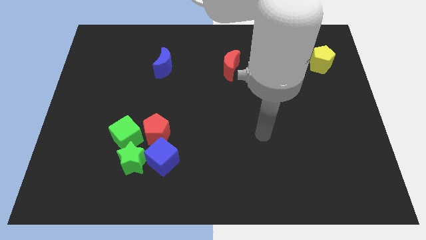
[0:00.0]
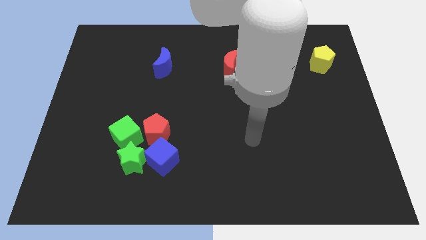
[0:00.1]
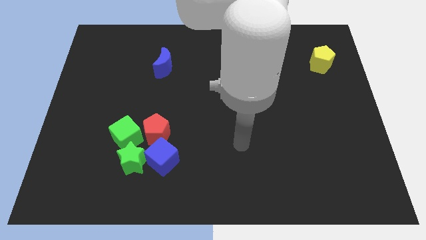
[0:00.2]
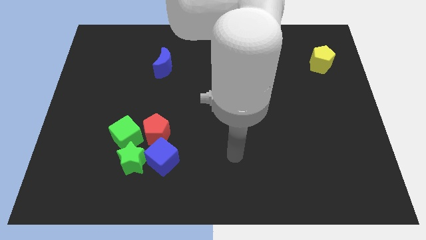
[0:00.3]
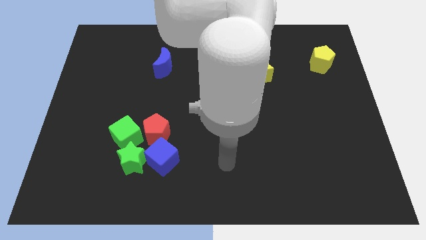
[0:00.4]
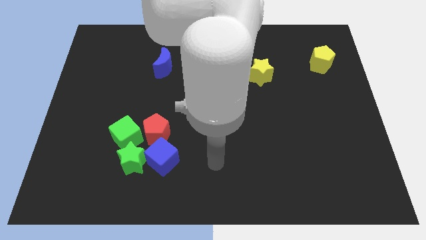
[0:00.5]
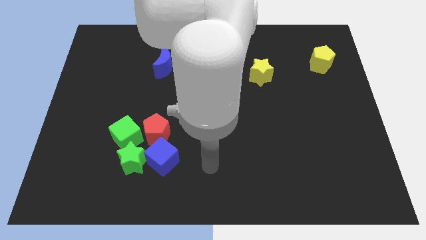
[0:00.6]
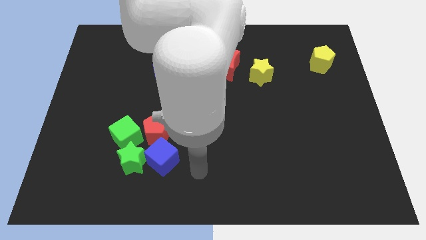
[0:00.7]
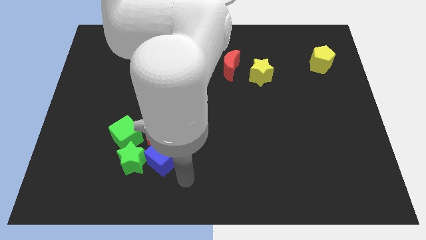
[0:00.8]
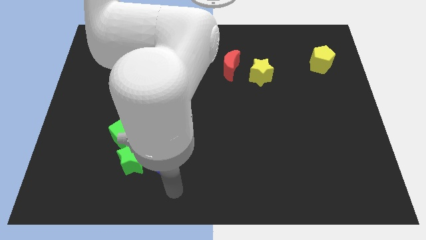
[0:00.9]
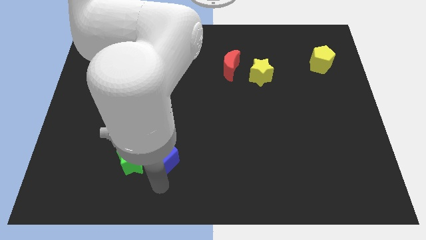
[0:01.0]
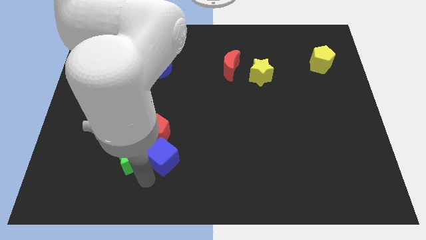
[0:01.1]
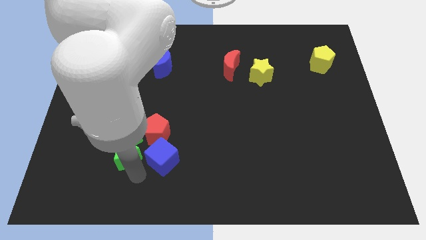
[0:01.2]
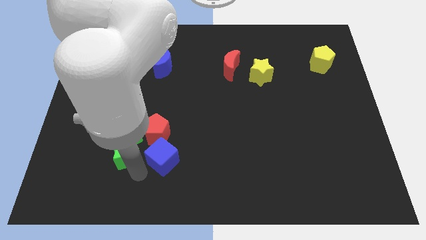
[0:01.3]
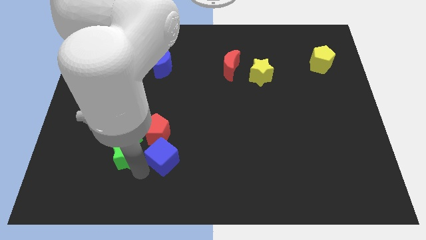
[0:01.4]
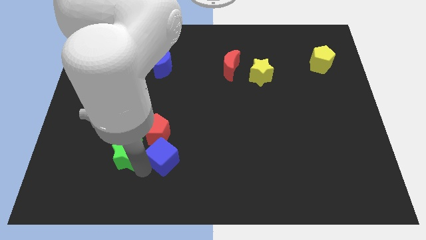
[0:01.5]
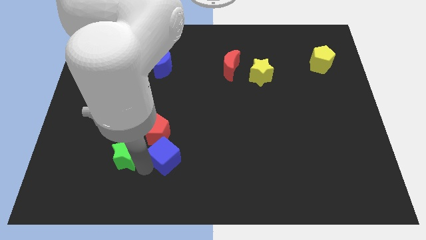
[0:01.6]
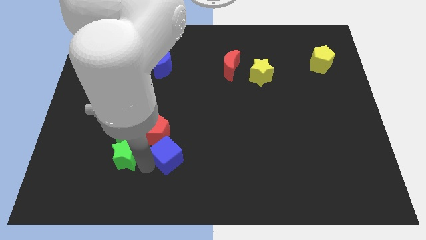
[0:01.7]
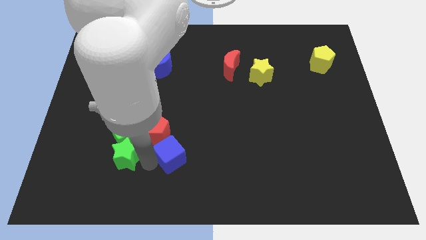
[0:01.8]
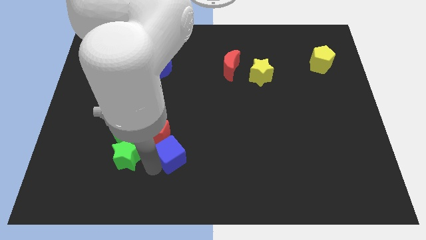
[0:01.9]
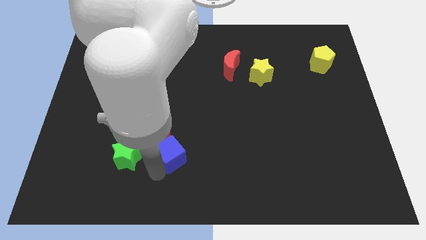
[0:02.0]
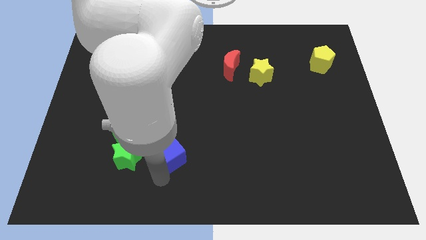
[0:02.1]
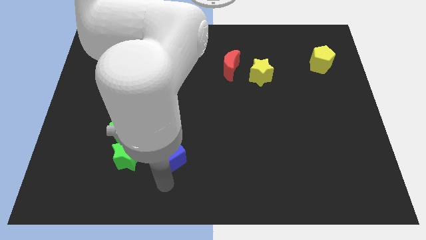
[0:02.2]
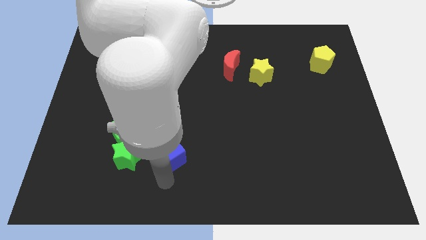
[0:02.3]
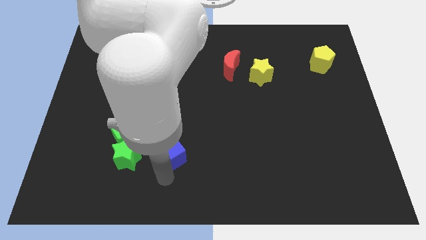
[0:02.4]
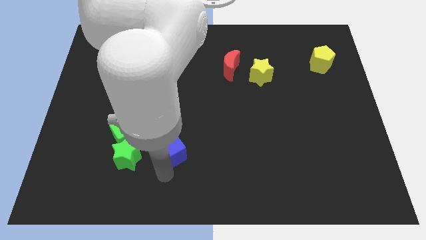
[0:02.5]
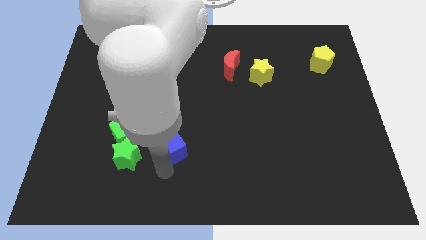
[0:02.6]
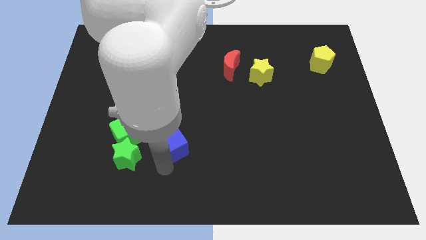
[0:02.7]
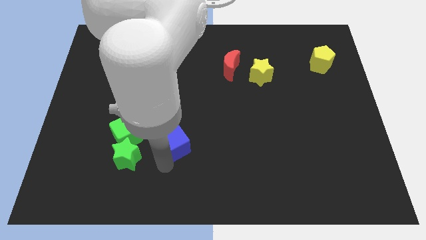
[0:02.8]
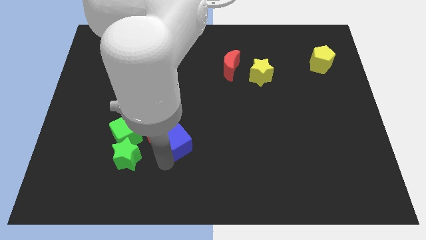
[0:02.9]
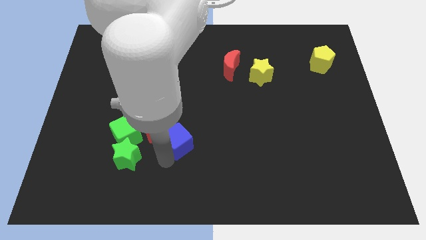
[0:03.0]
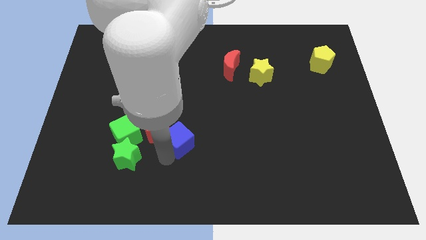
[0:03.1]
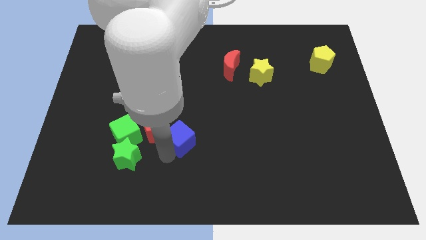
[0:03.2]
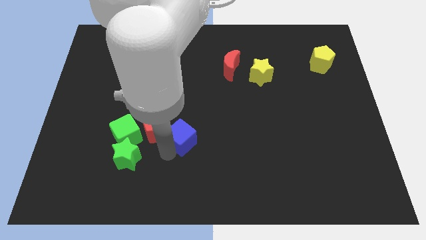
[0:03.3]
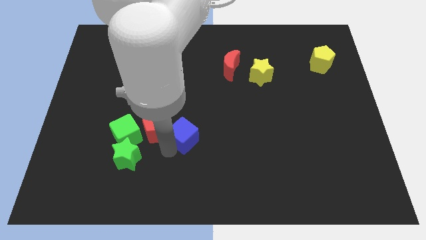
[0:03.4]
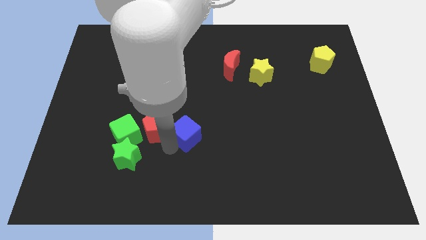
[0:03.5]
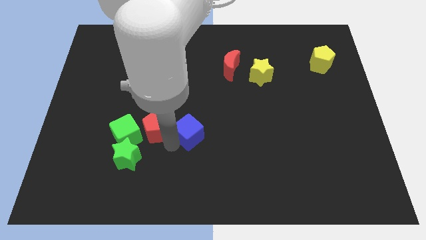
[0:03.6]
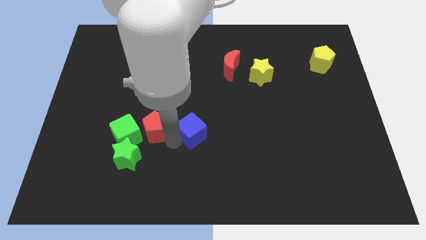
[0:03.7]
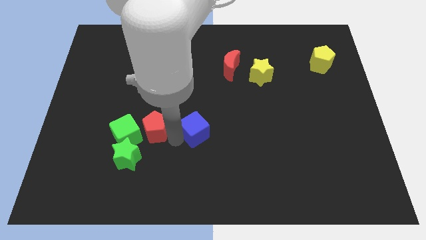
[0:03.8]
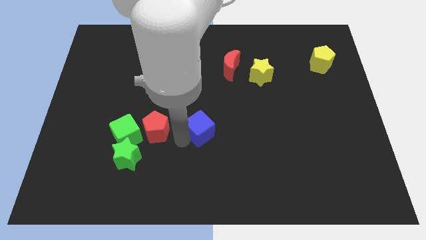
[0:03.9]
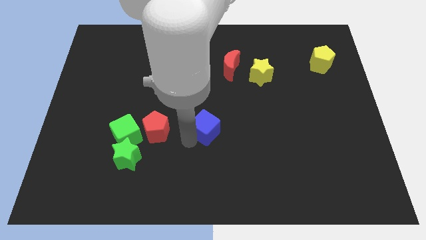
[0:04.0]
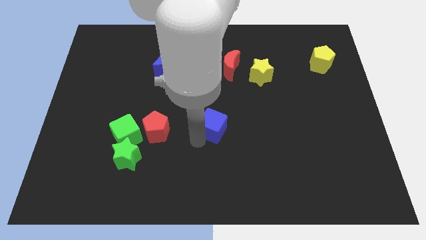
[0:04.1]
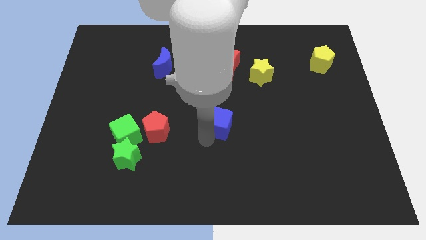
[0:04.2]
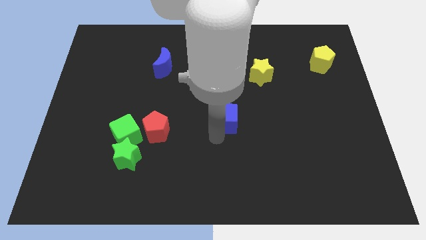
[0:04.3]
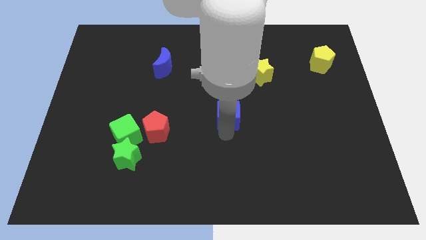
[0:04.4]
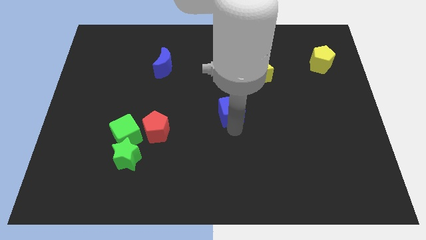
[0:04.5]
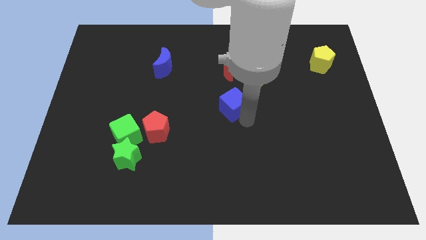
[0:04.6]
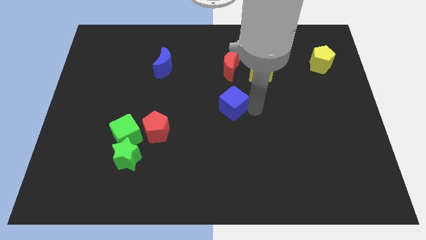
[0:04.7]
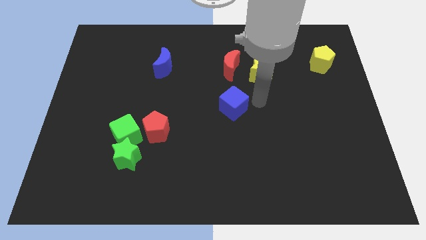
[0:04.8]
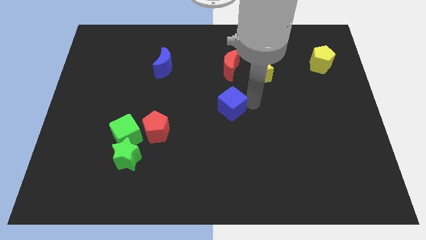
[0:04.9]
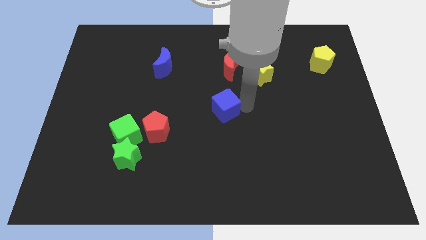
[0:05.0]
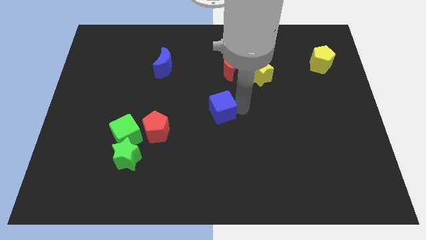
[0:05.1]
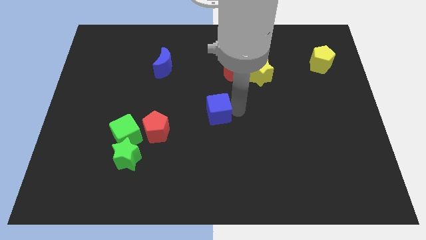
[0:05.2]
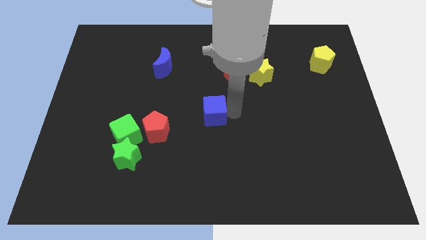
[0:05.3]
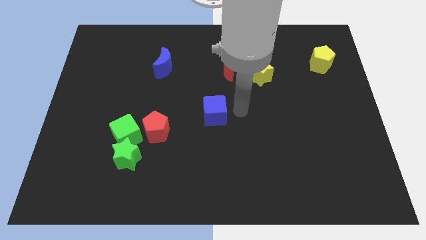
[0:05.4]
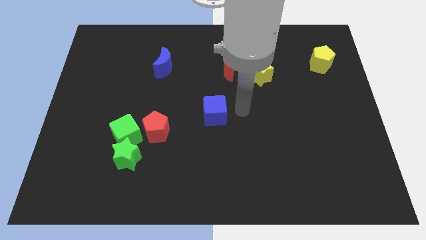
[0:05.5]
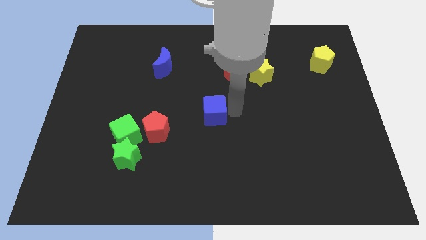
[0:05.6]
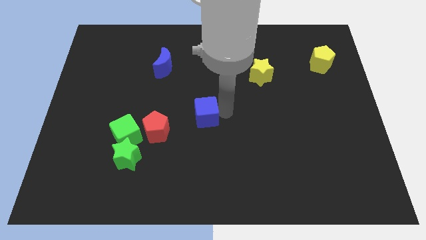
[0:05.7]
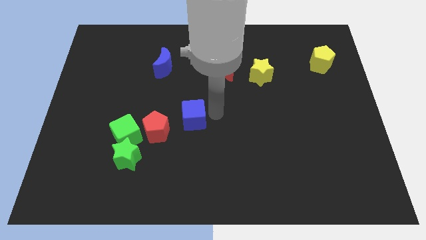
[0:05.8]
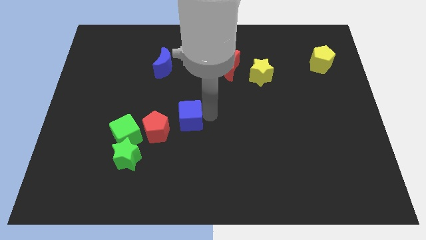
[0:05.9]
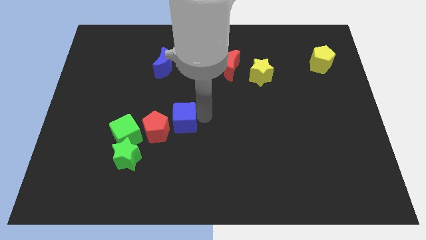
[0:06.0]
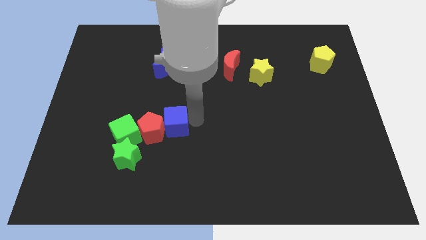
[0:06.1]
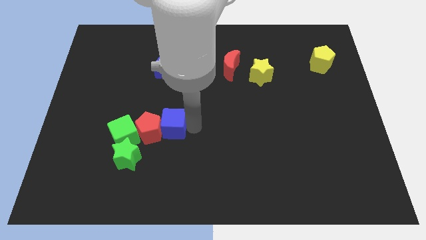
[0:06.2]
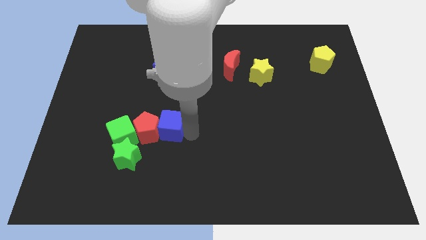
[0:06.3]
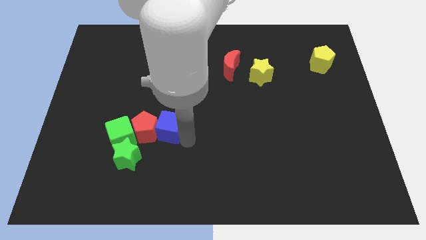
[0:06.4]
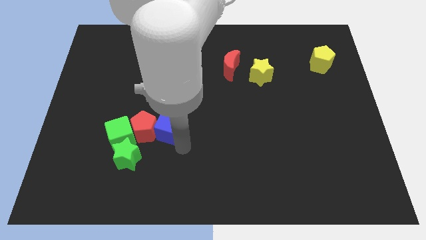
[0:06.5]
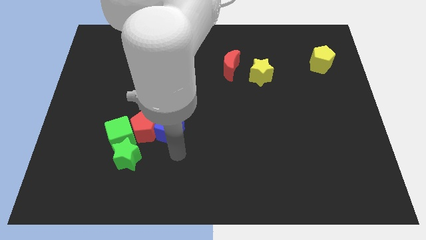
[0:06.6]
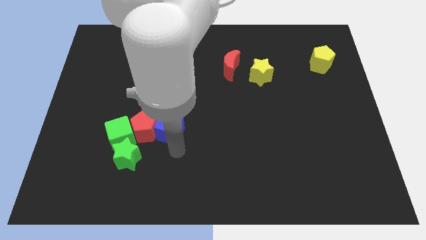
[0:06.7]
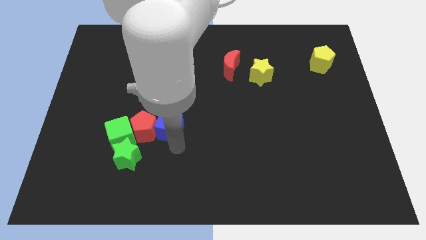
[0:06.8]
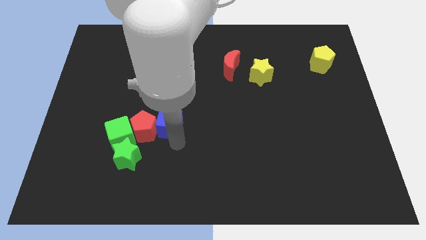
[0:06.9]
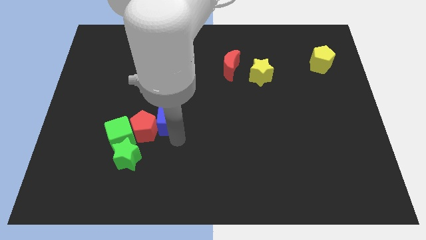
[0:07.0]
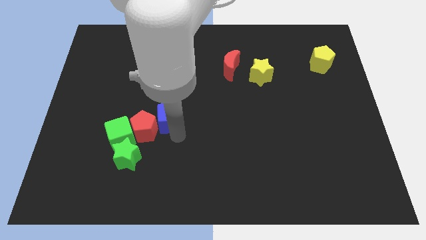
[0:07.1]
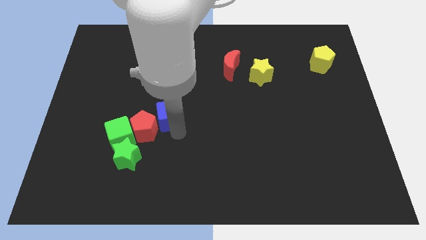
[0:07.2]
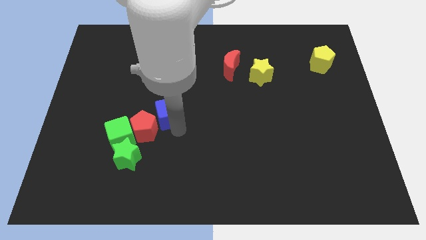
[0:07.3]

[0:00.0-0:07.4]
put the blue cube to the bottom side of the blue moon
